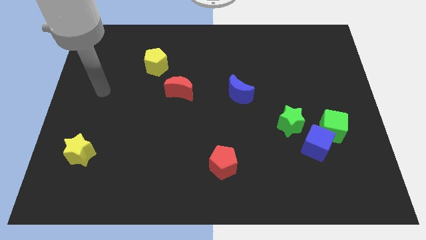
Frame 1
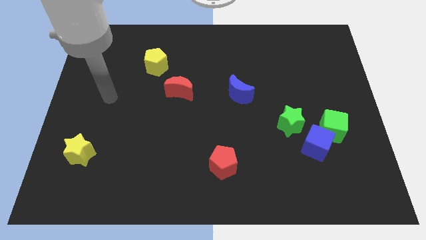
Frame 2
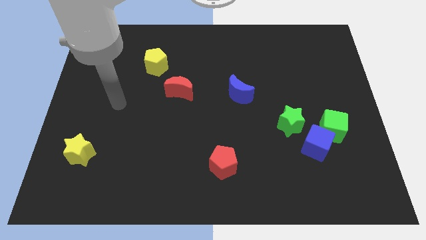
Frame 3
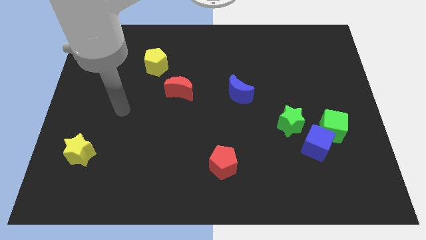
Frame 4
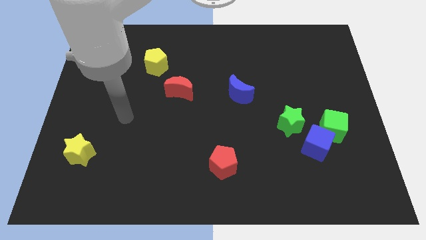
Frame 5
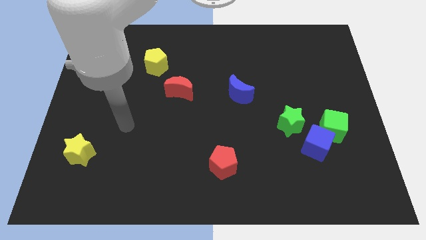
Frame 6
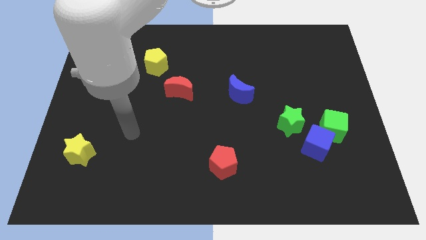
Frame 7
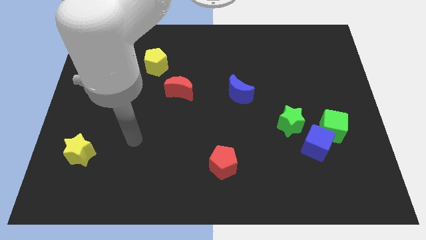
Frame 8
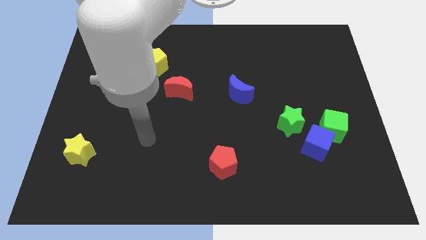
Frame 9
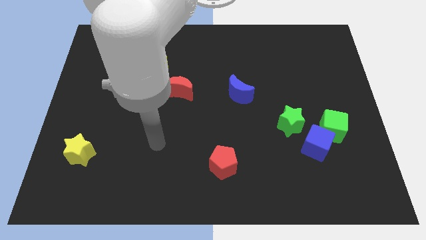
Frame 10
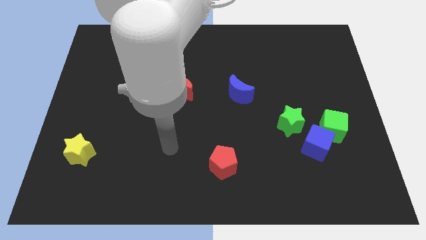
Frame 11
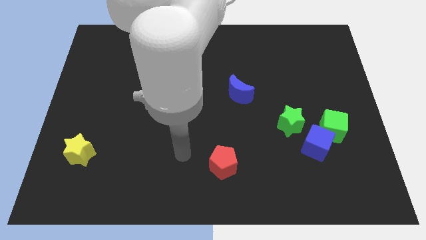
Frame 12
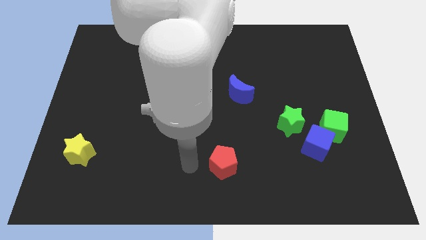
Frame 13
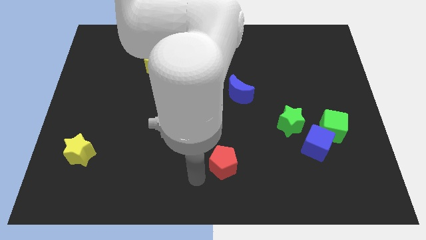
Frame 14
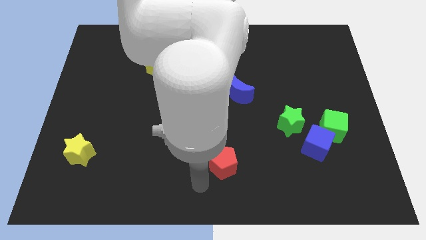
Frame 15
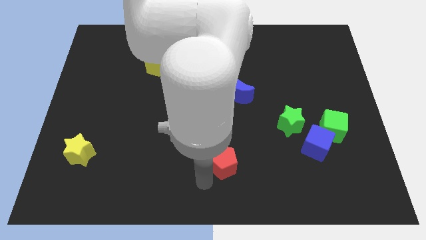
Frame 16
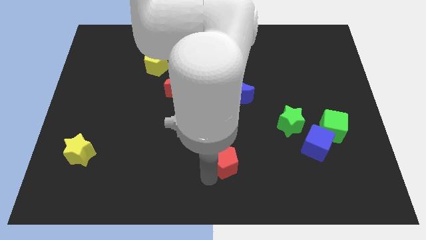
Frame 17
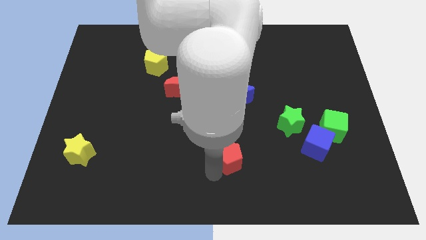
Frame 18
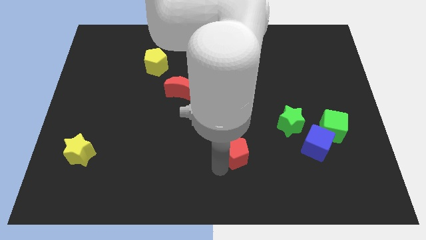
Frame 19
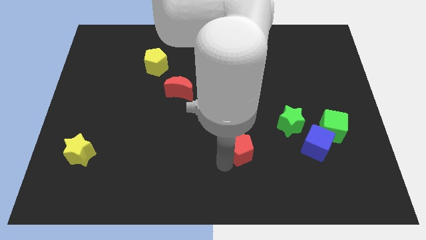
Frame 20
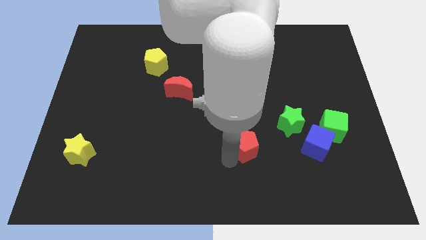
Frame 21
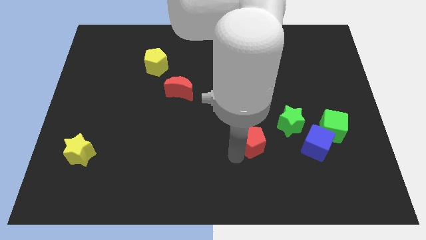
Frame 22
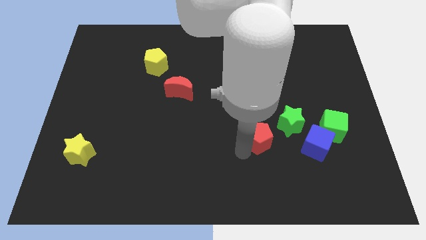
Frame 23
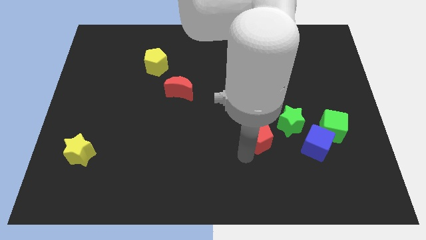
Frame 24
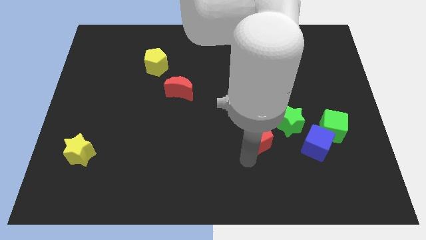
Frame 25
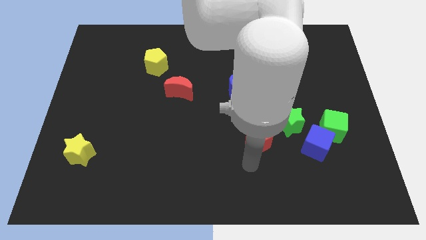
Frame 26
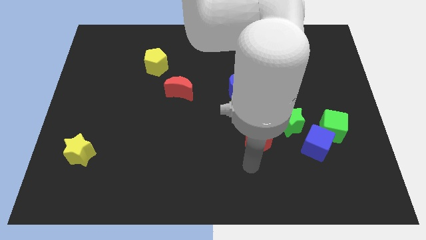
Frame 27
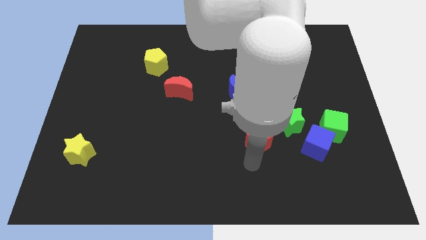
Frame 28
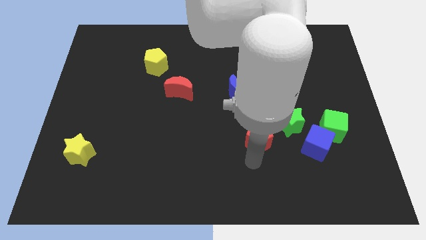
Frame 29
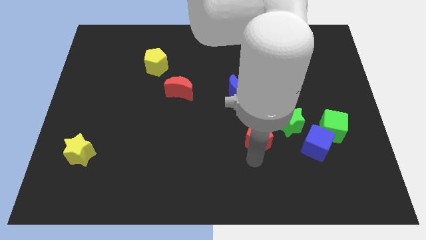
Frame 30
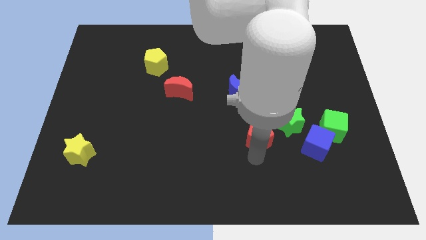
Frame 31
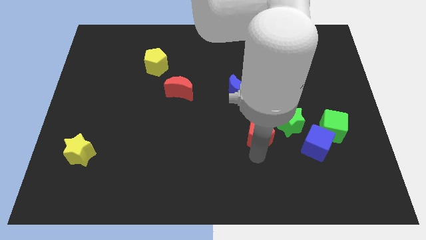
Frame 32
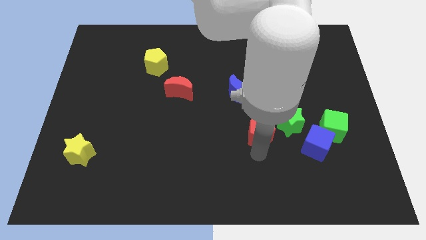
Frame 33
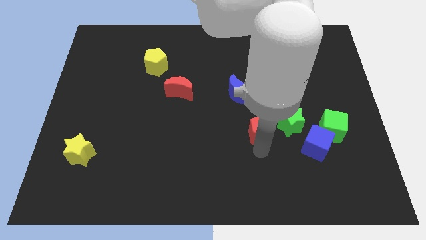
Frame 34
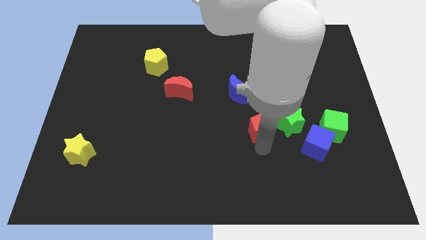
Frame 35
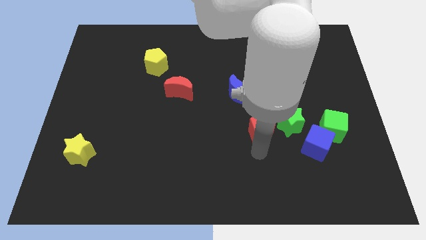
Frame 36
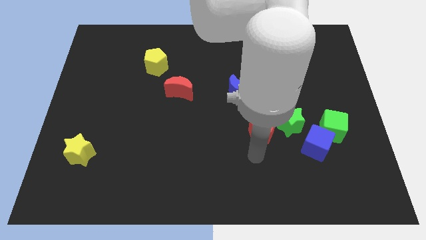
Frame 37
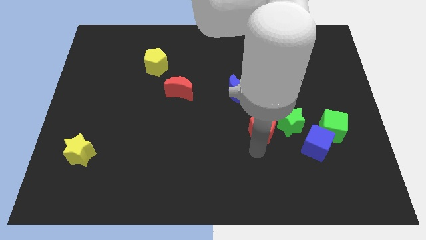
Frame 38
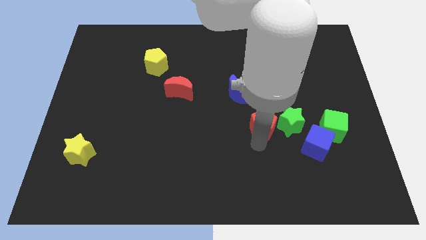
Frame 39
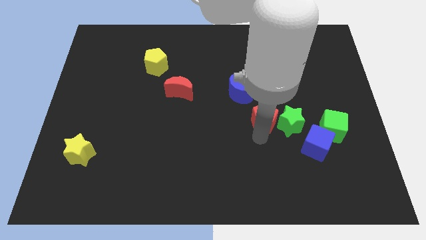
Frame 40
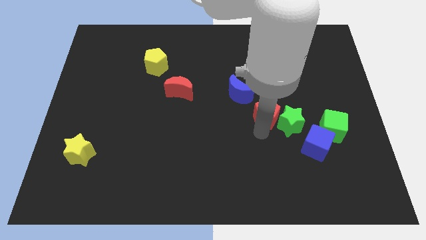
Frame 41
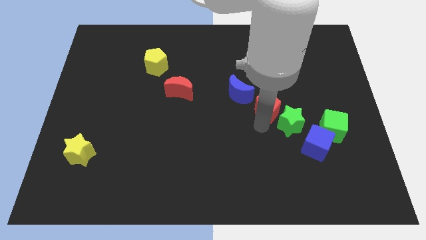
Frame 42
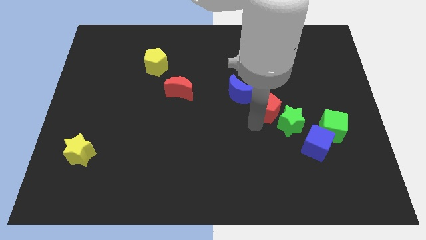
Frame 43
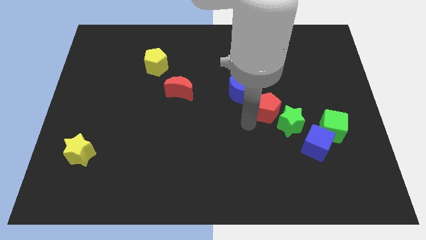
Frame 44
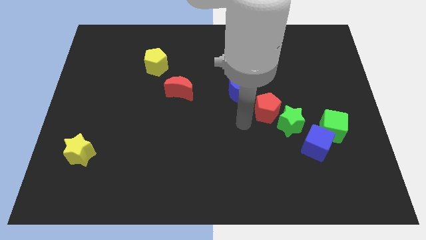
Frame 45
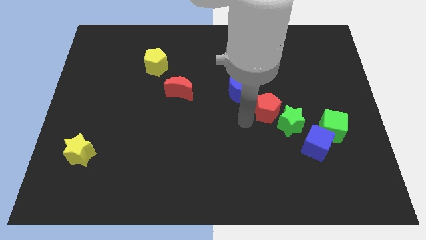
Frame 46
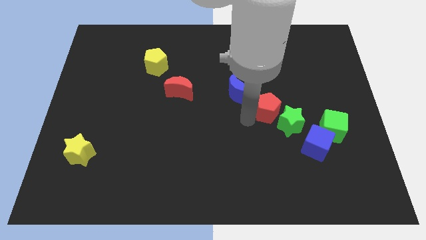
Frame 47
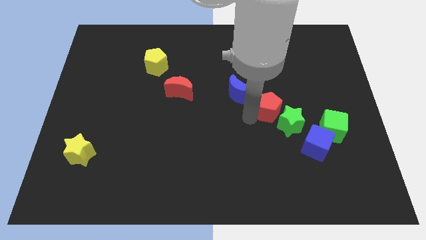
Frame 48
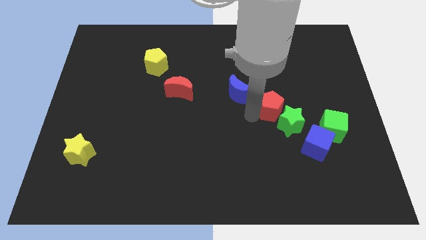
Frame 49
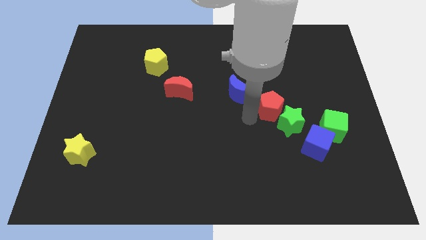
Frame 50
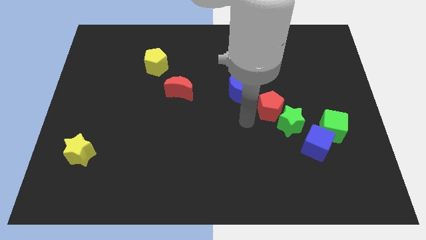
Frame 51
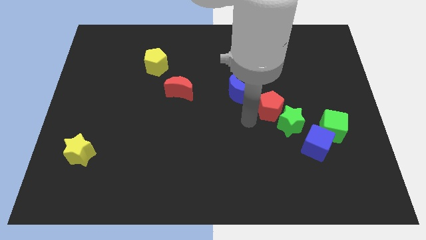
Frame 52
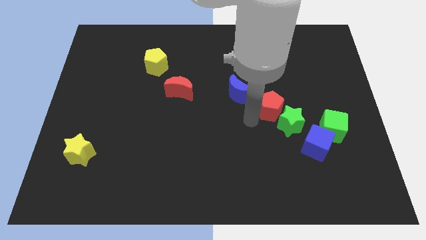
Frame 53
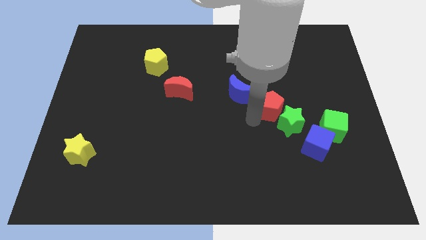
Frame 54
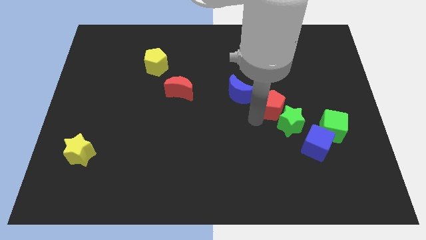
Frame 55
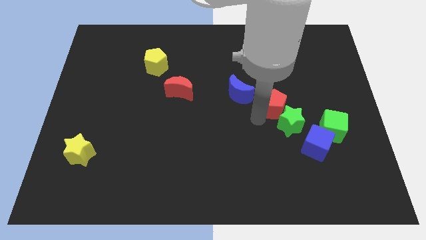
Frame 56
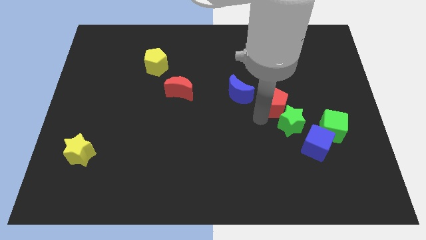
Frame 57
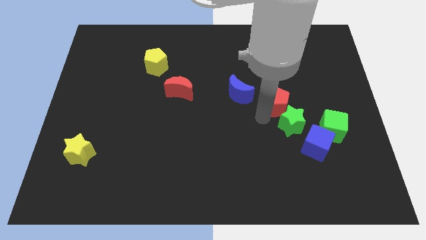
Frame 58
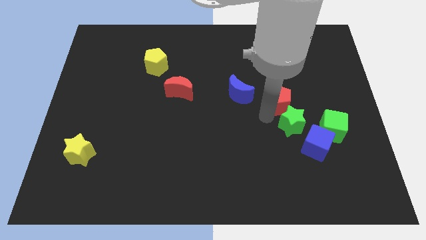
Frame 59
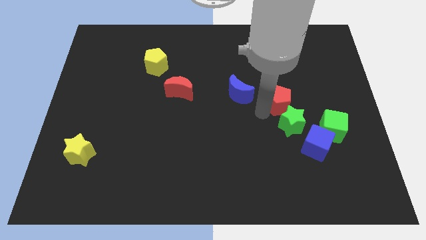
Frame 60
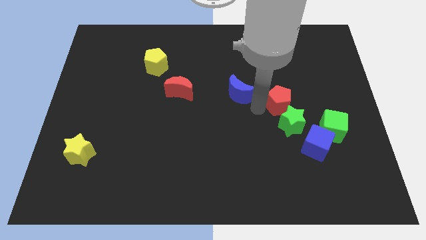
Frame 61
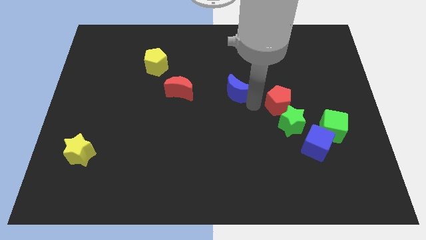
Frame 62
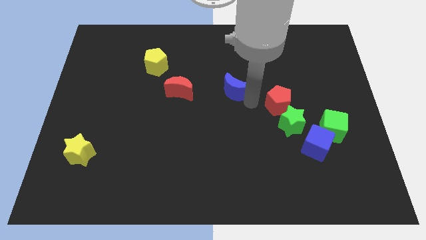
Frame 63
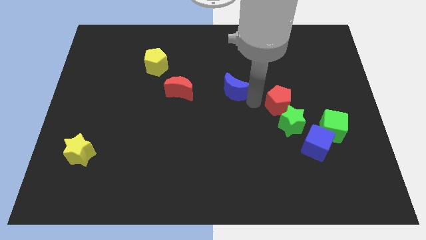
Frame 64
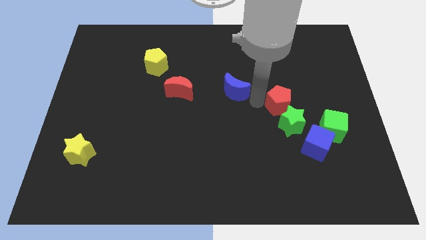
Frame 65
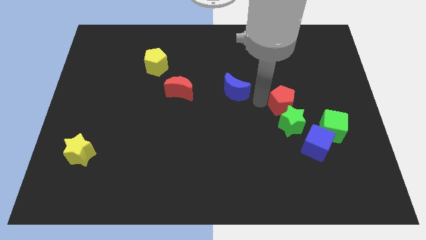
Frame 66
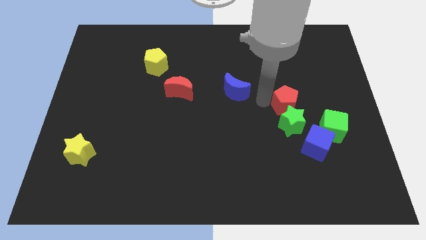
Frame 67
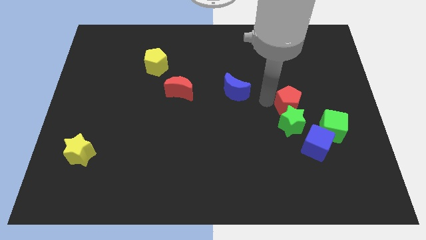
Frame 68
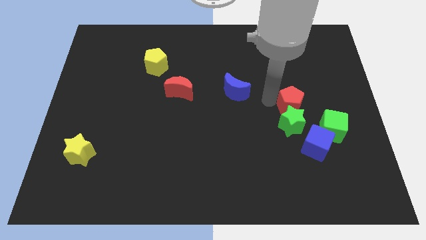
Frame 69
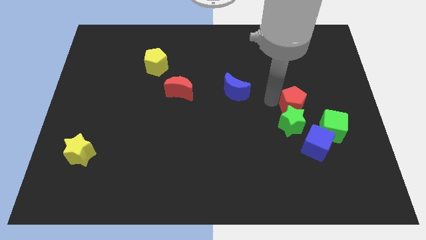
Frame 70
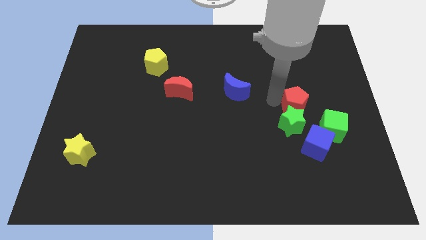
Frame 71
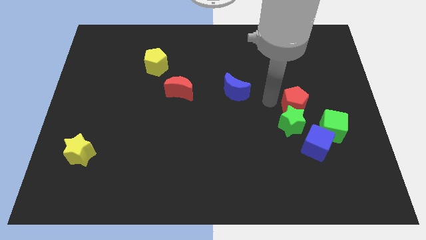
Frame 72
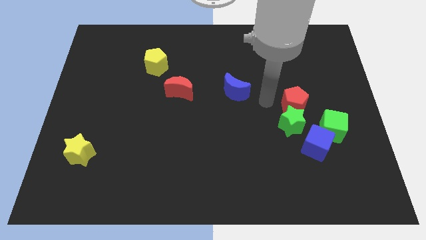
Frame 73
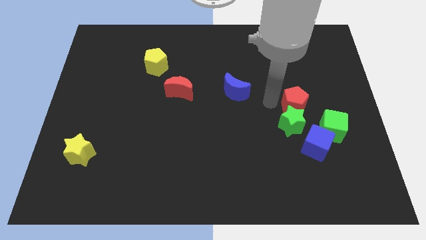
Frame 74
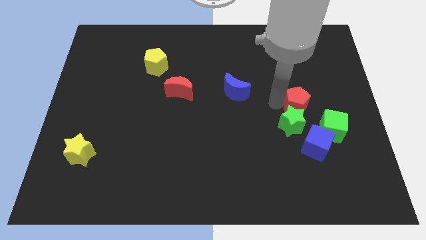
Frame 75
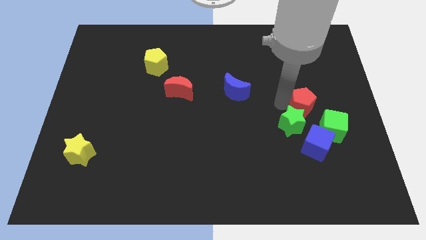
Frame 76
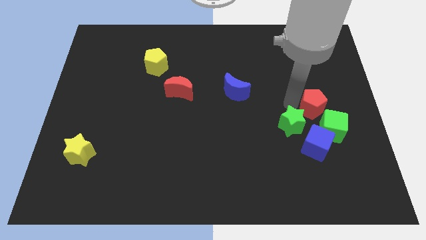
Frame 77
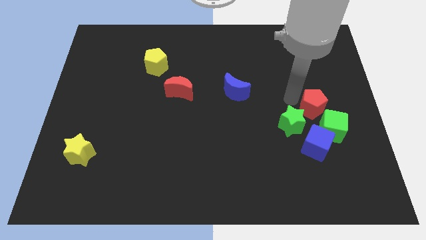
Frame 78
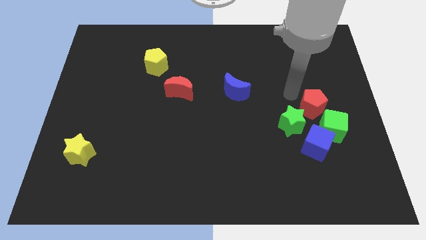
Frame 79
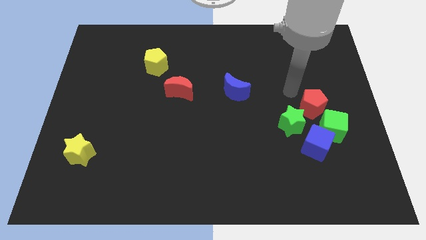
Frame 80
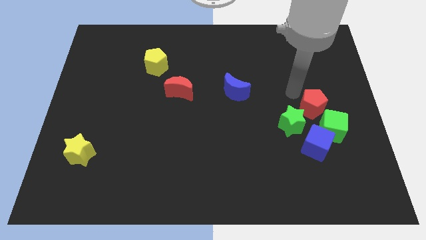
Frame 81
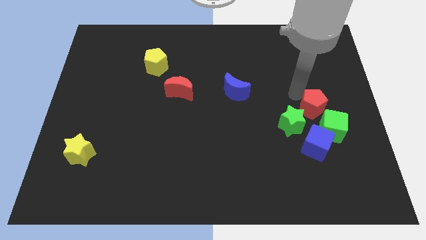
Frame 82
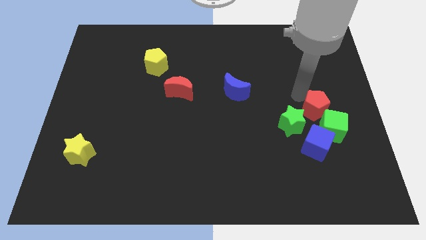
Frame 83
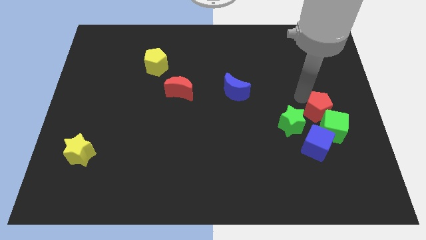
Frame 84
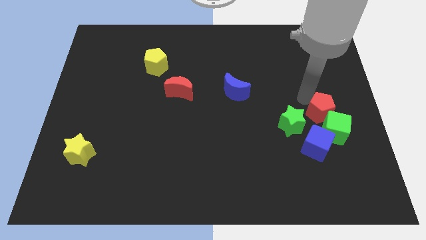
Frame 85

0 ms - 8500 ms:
push the red pentagon to the top right of the blue cube
